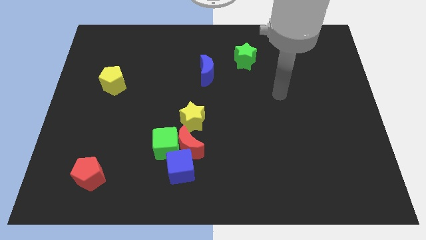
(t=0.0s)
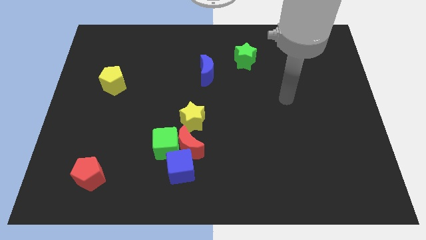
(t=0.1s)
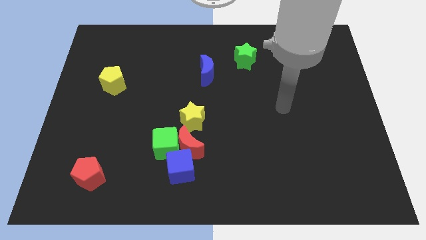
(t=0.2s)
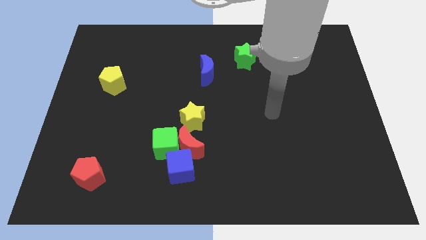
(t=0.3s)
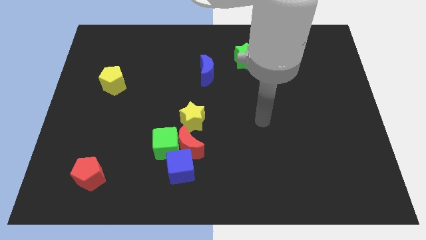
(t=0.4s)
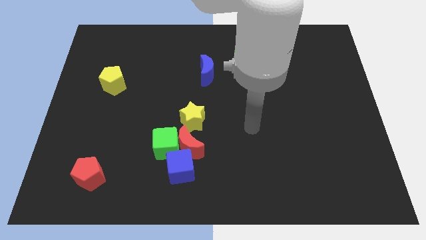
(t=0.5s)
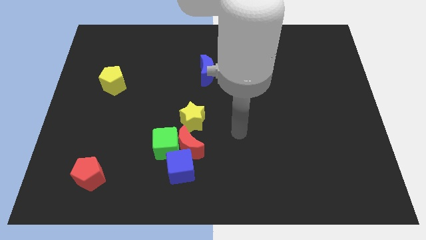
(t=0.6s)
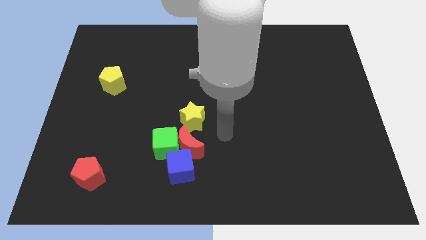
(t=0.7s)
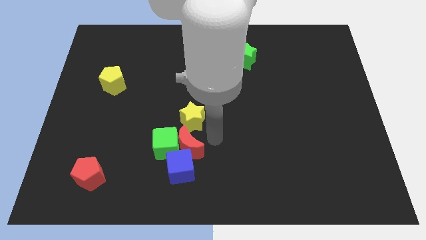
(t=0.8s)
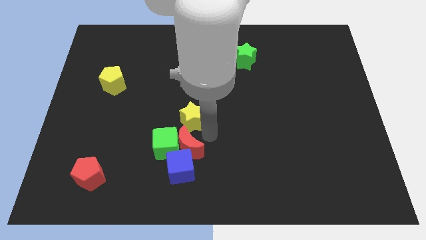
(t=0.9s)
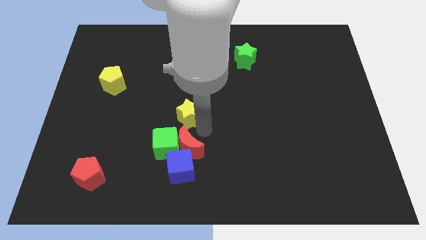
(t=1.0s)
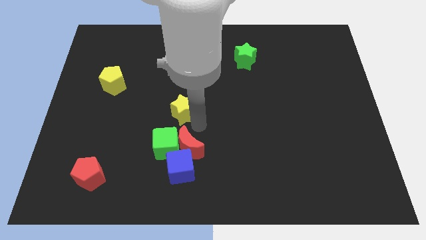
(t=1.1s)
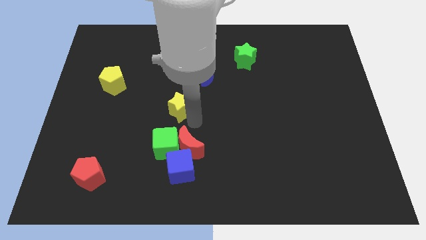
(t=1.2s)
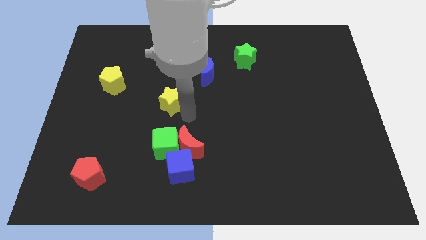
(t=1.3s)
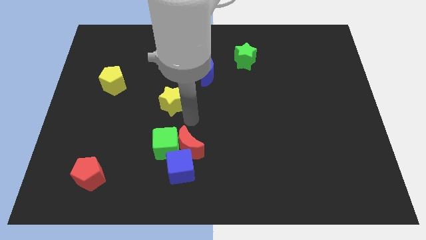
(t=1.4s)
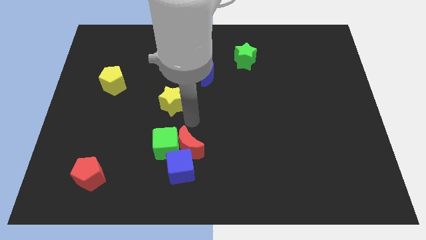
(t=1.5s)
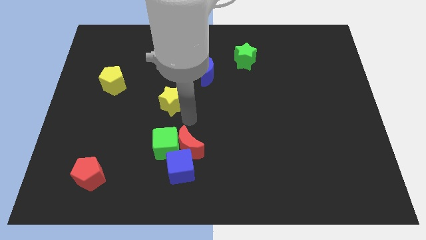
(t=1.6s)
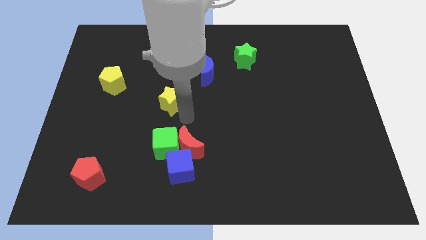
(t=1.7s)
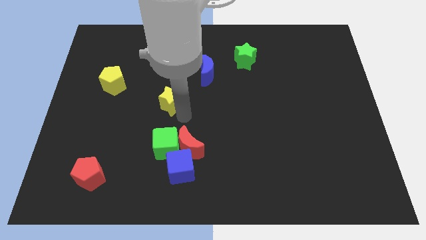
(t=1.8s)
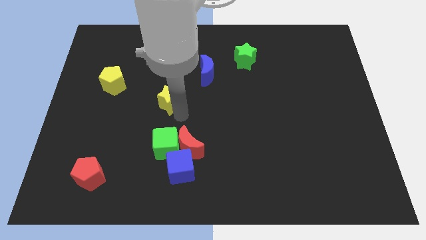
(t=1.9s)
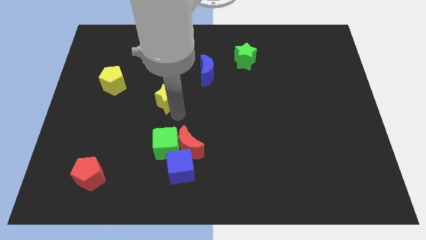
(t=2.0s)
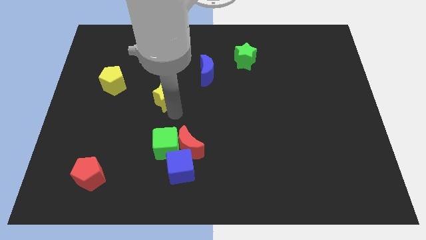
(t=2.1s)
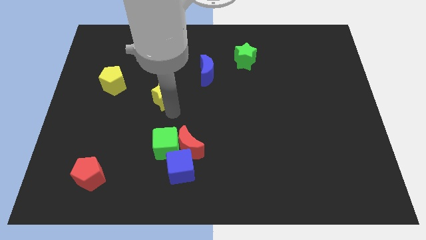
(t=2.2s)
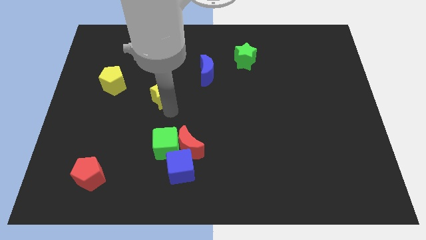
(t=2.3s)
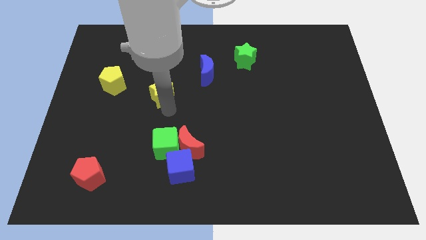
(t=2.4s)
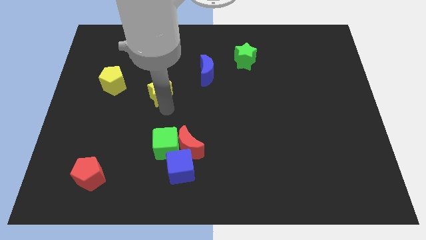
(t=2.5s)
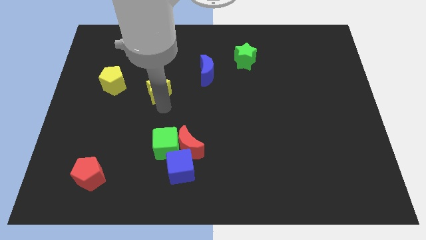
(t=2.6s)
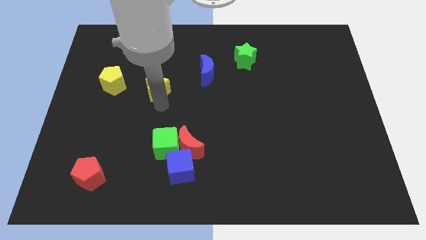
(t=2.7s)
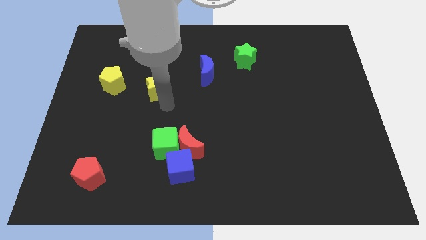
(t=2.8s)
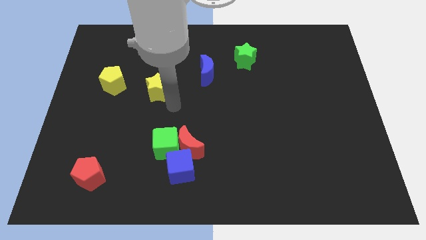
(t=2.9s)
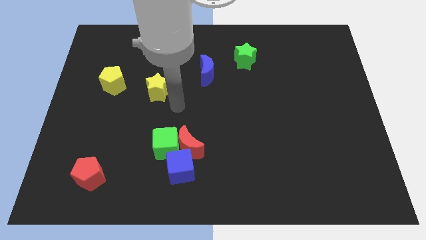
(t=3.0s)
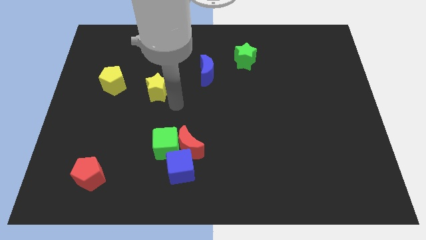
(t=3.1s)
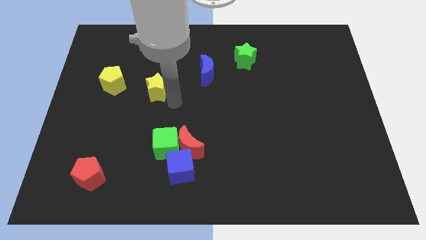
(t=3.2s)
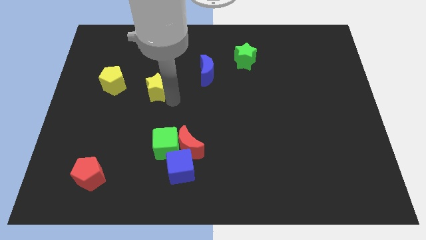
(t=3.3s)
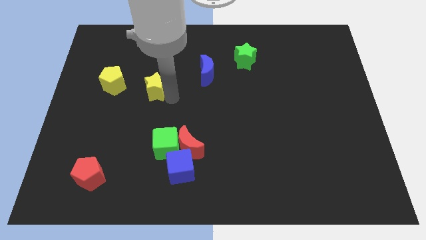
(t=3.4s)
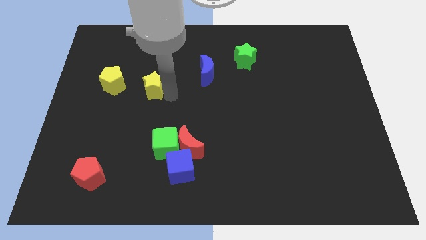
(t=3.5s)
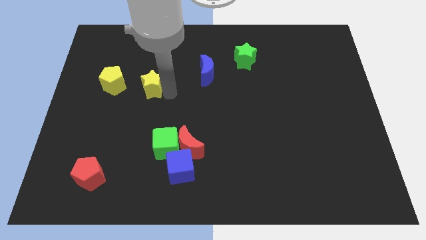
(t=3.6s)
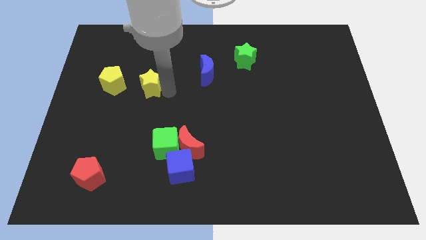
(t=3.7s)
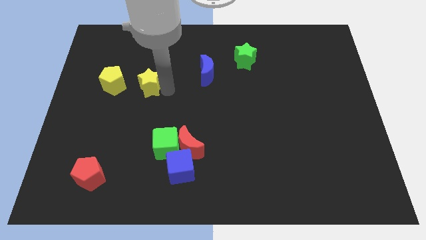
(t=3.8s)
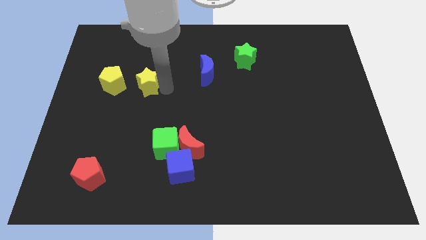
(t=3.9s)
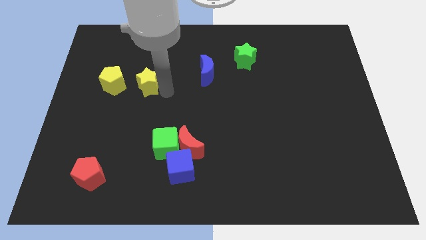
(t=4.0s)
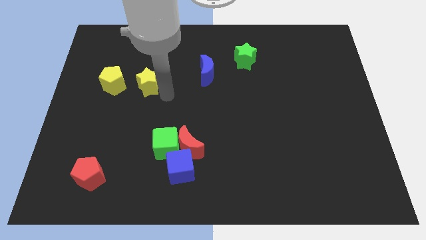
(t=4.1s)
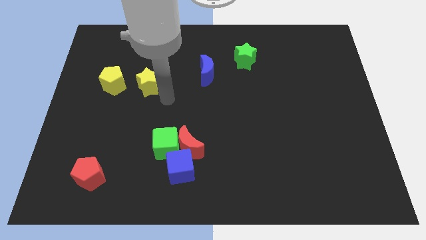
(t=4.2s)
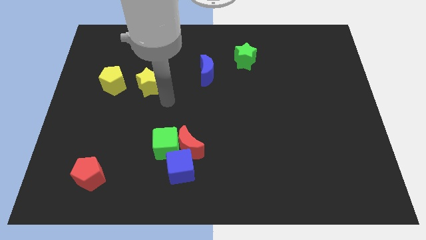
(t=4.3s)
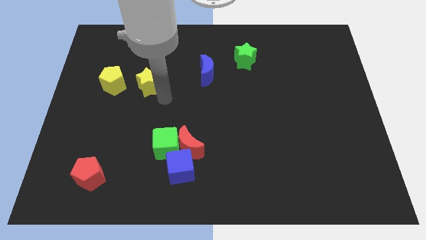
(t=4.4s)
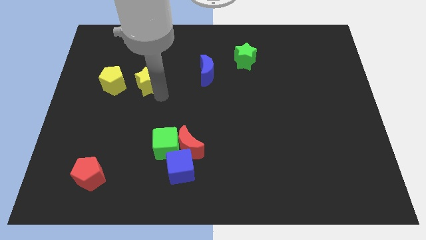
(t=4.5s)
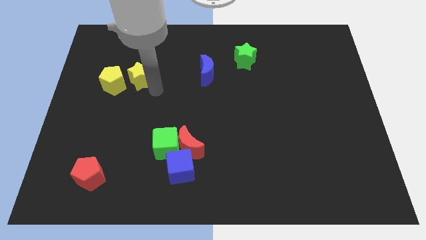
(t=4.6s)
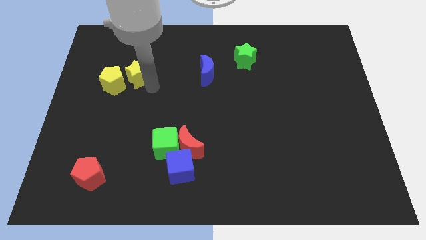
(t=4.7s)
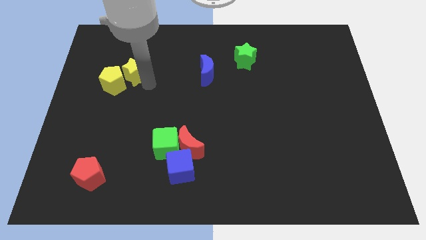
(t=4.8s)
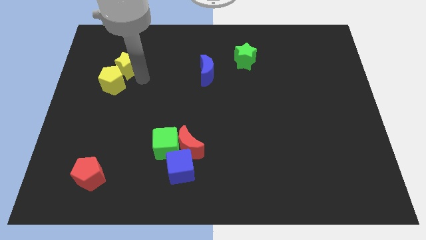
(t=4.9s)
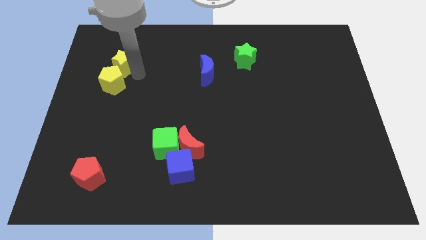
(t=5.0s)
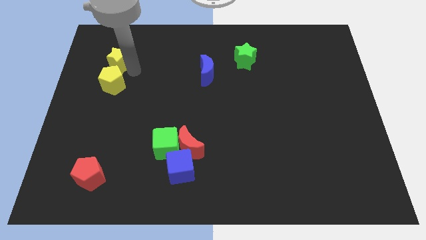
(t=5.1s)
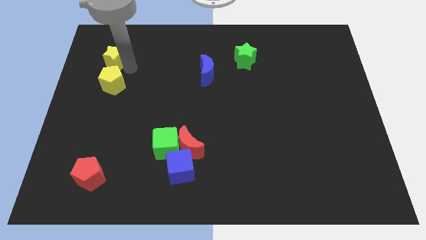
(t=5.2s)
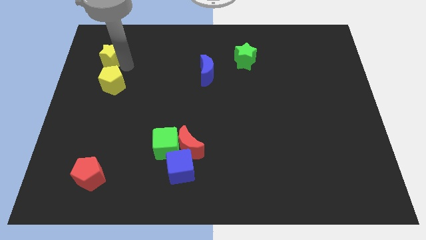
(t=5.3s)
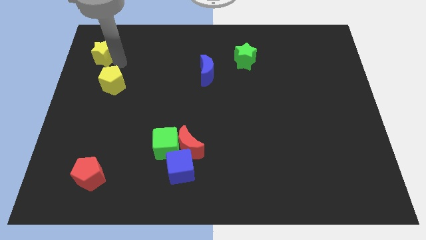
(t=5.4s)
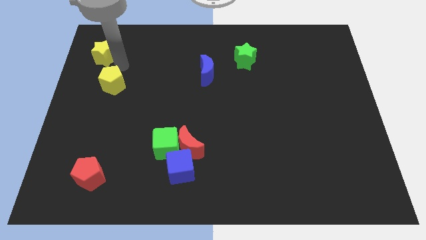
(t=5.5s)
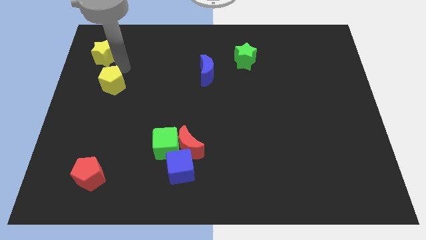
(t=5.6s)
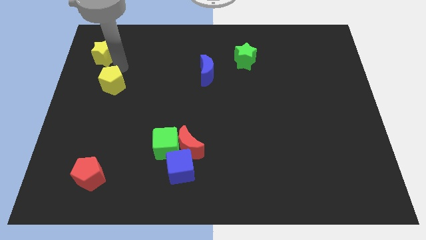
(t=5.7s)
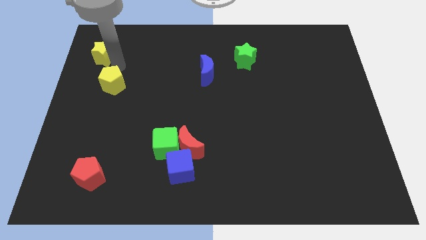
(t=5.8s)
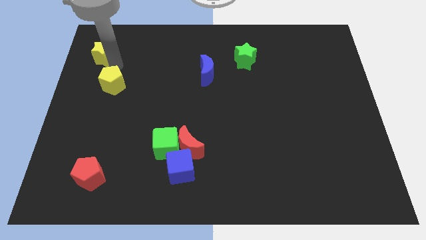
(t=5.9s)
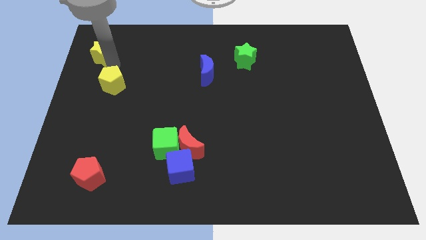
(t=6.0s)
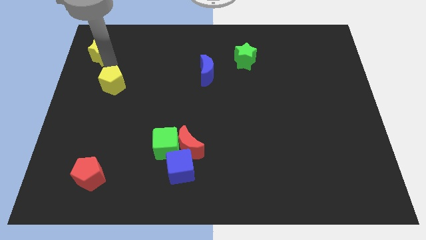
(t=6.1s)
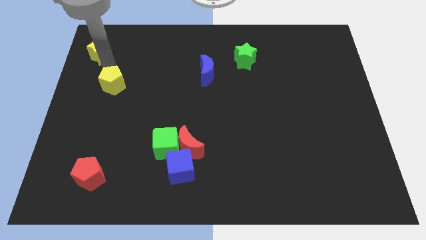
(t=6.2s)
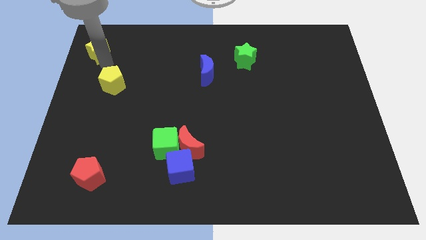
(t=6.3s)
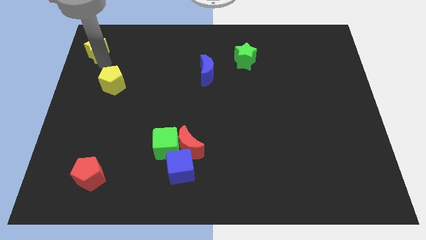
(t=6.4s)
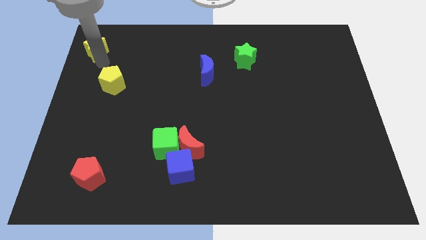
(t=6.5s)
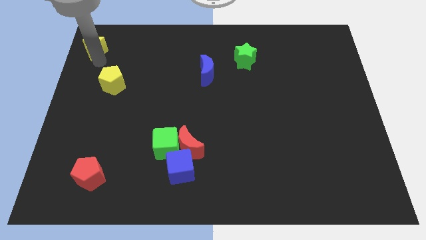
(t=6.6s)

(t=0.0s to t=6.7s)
put the yellow star to the top left
